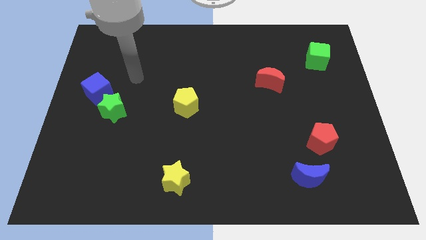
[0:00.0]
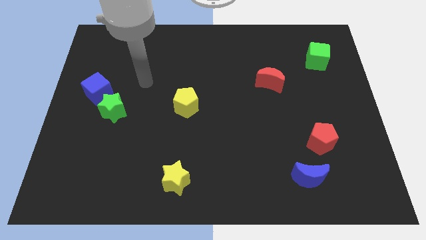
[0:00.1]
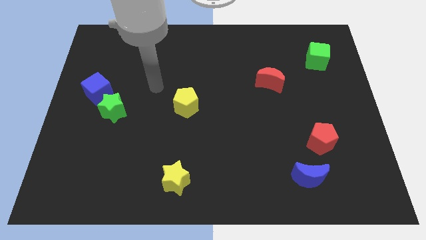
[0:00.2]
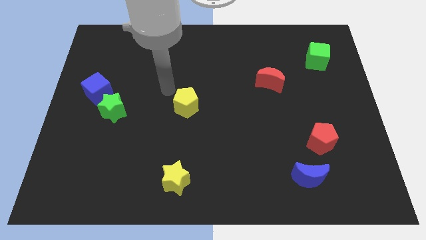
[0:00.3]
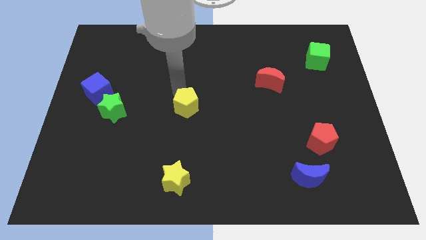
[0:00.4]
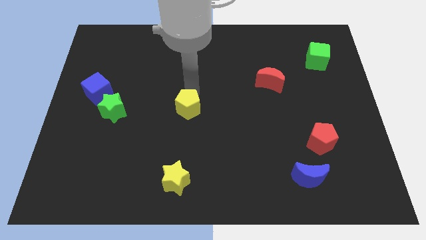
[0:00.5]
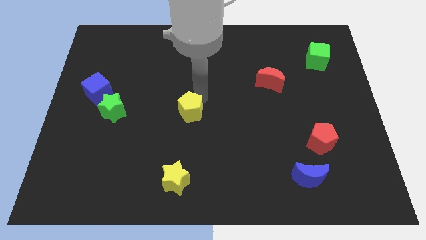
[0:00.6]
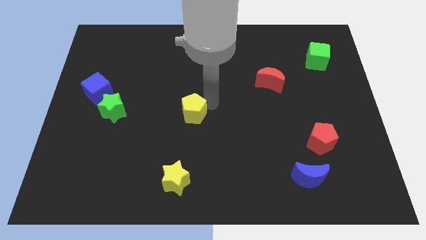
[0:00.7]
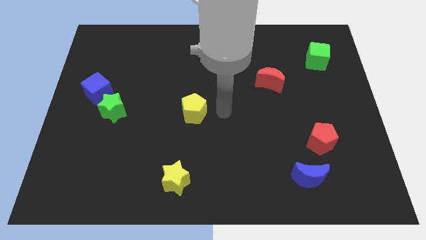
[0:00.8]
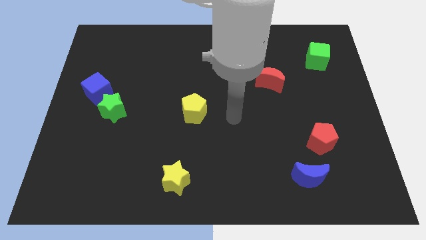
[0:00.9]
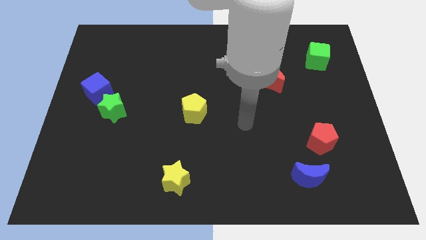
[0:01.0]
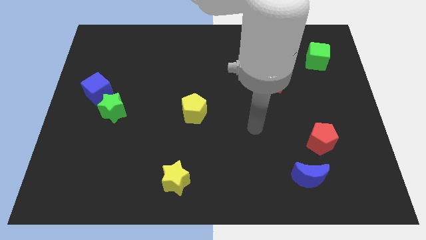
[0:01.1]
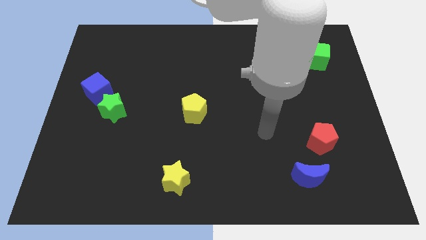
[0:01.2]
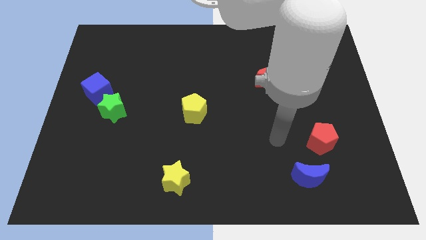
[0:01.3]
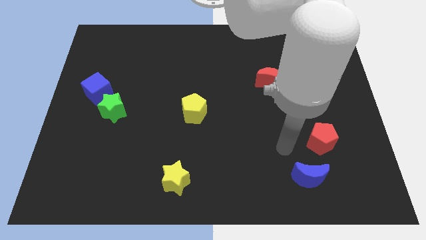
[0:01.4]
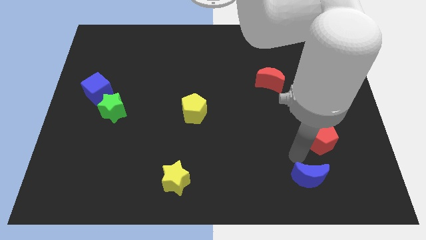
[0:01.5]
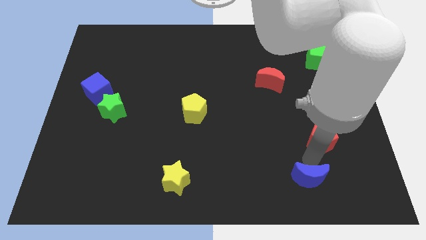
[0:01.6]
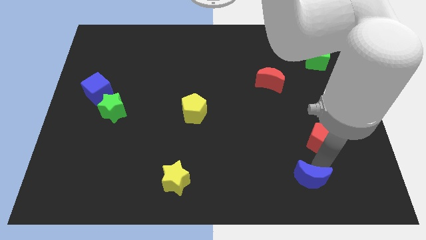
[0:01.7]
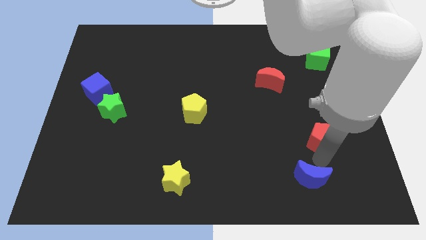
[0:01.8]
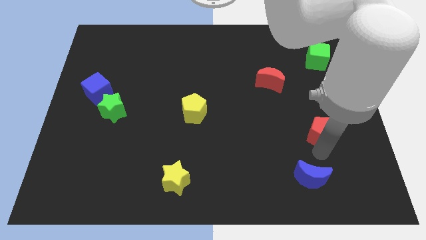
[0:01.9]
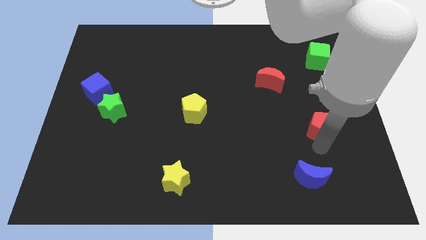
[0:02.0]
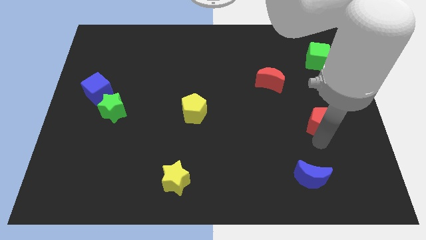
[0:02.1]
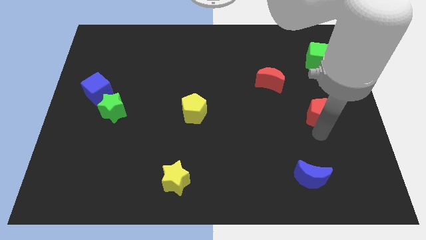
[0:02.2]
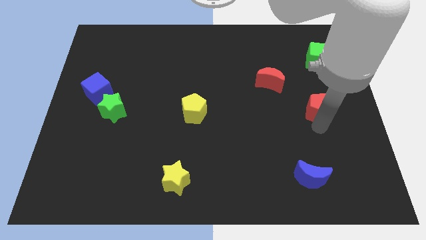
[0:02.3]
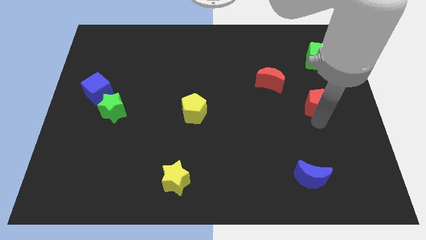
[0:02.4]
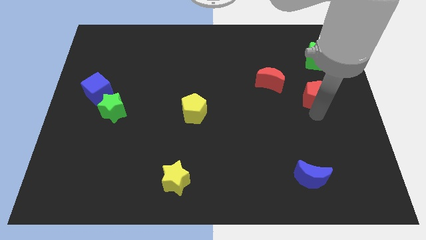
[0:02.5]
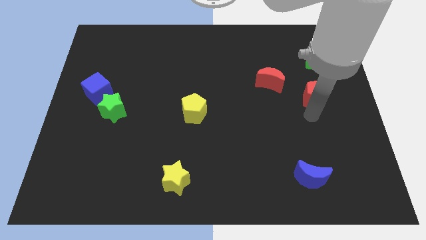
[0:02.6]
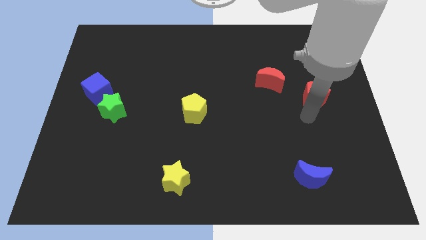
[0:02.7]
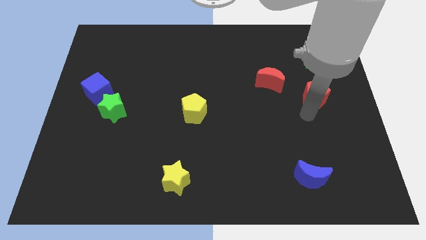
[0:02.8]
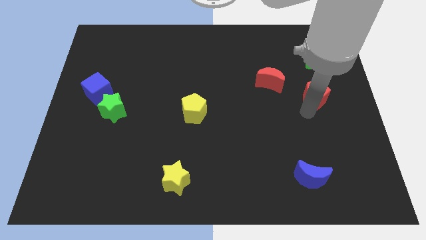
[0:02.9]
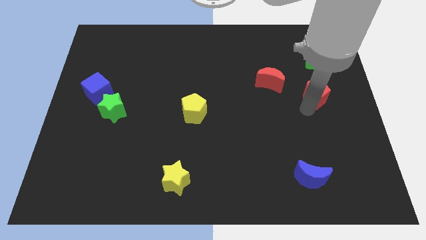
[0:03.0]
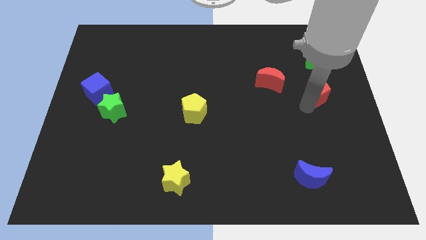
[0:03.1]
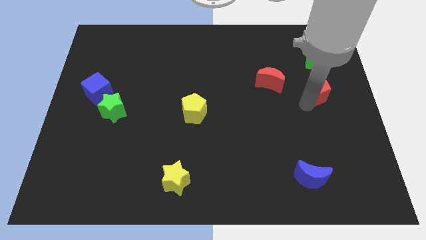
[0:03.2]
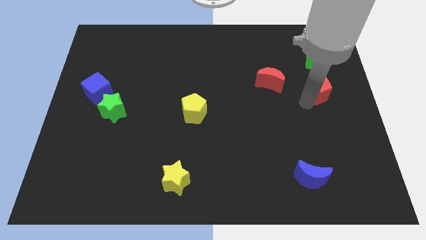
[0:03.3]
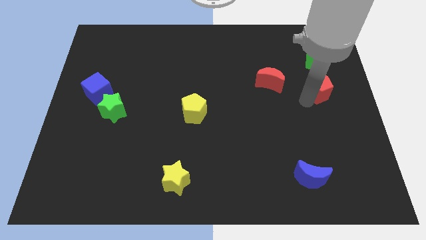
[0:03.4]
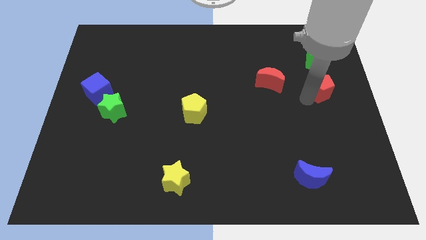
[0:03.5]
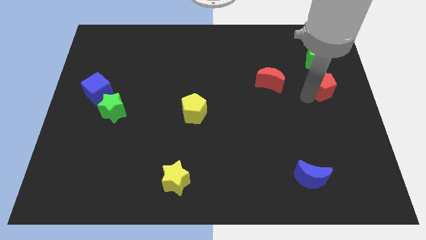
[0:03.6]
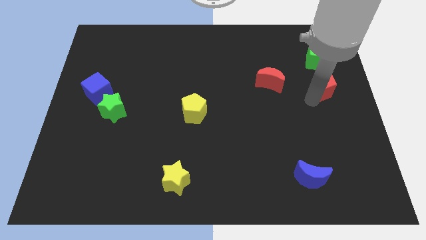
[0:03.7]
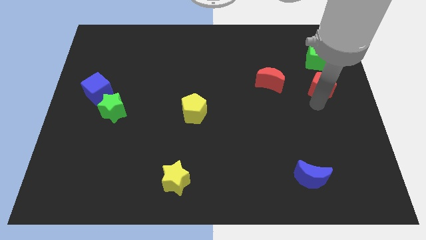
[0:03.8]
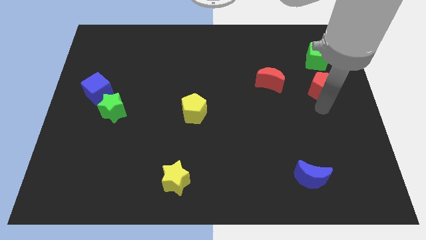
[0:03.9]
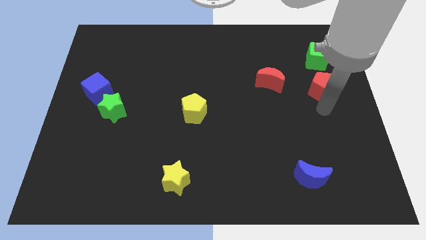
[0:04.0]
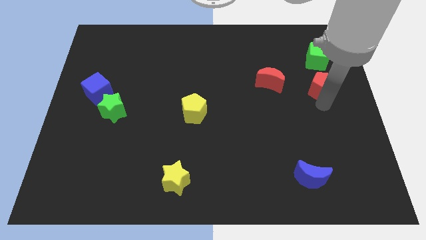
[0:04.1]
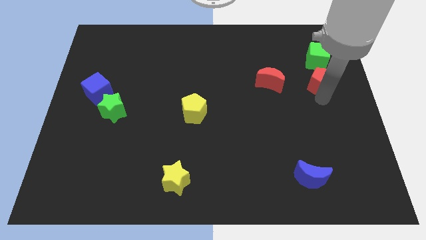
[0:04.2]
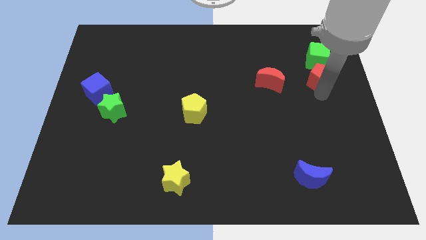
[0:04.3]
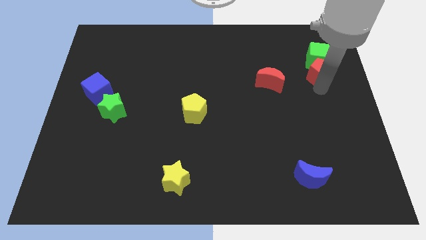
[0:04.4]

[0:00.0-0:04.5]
push the red pentagon close to the green cube

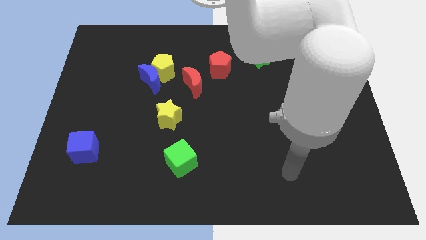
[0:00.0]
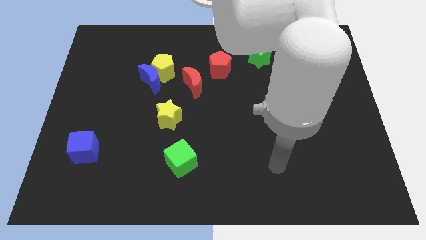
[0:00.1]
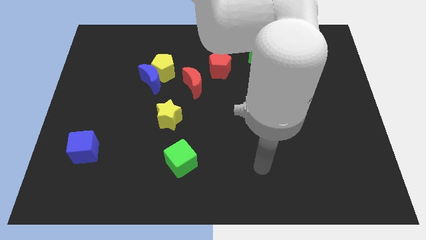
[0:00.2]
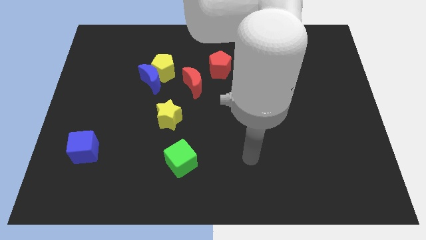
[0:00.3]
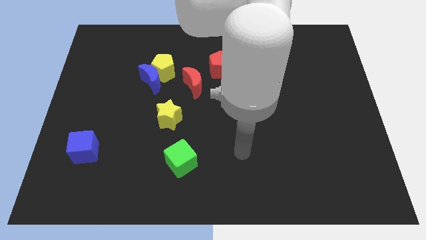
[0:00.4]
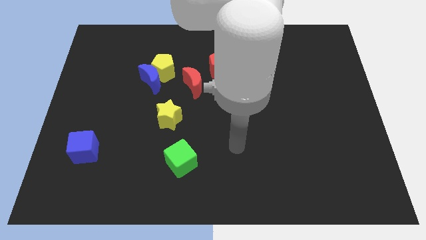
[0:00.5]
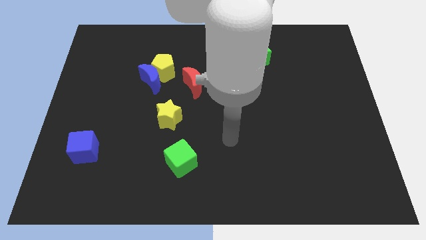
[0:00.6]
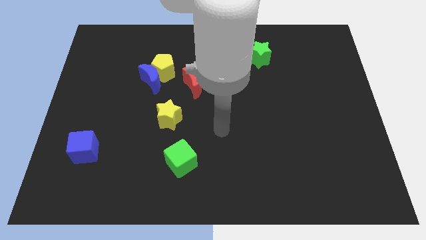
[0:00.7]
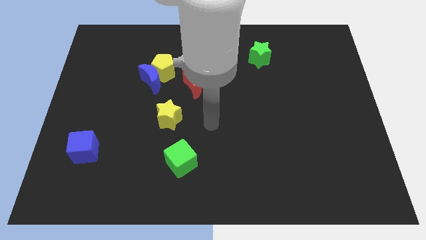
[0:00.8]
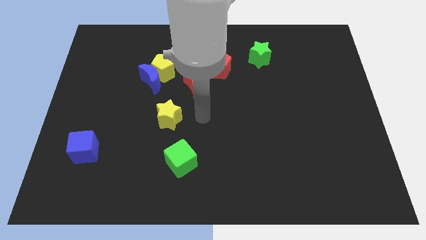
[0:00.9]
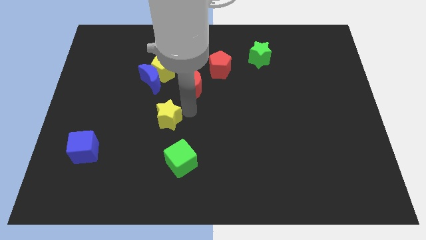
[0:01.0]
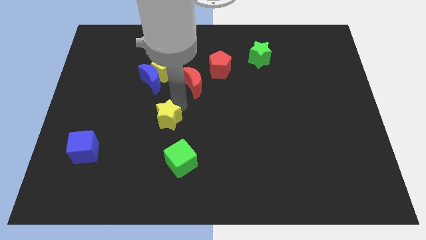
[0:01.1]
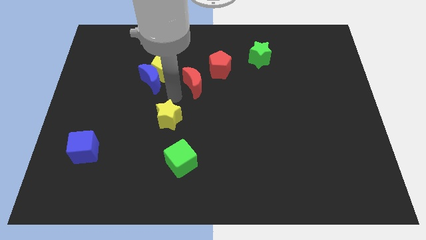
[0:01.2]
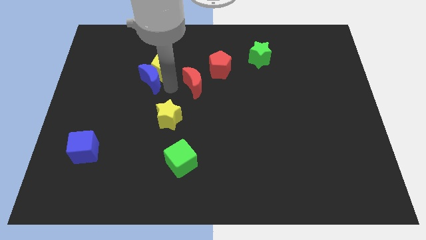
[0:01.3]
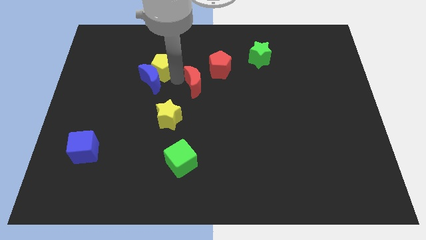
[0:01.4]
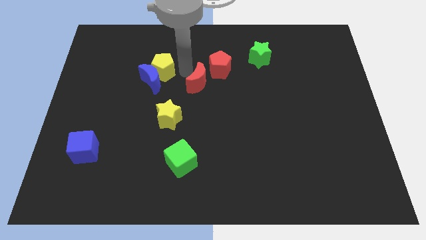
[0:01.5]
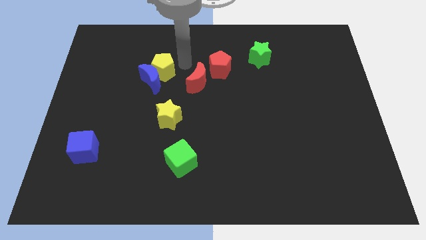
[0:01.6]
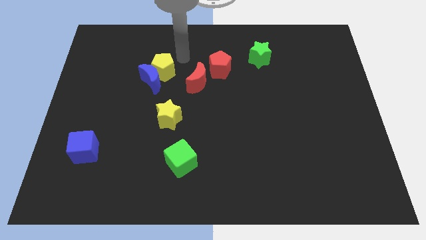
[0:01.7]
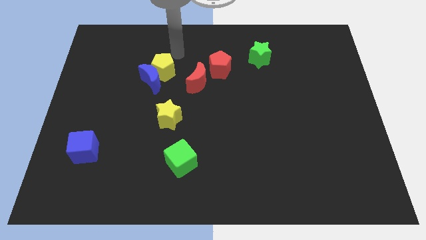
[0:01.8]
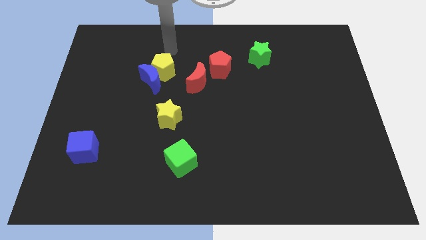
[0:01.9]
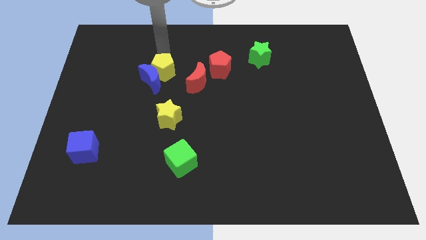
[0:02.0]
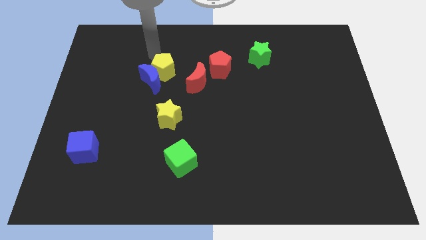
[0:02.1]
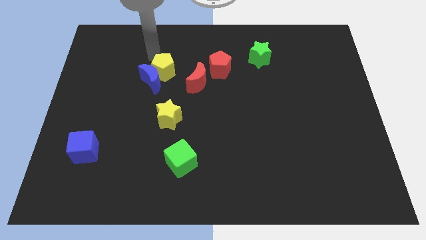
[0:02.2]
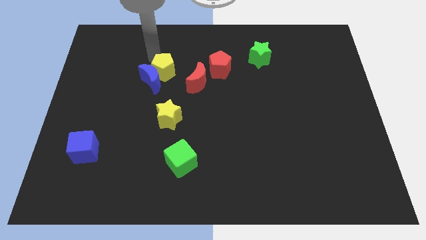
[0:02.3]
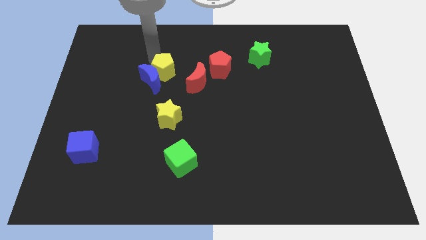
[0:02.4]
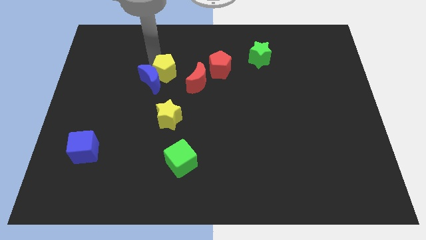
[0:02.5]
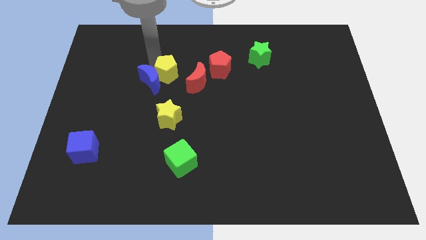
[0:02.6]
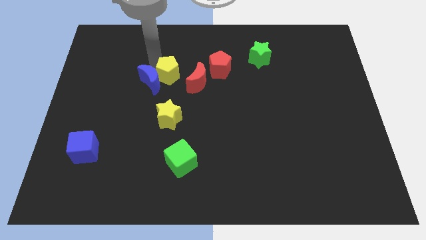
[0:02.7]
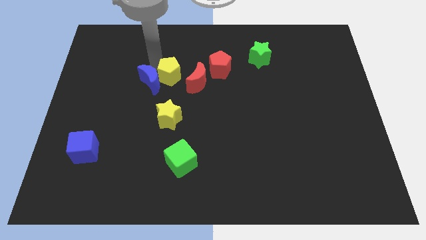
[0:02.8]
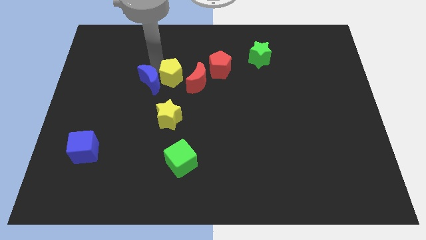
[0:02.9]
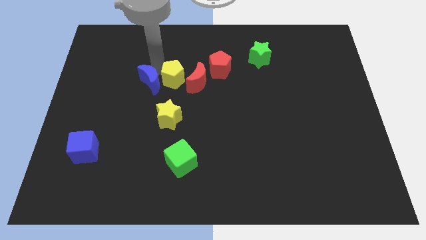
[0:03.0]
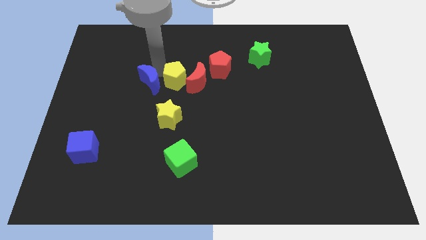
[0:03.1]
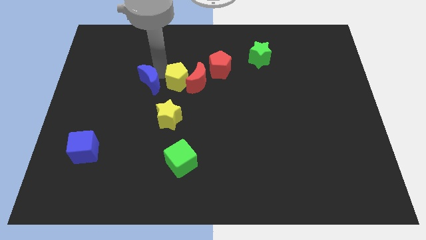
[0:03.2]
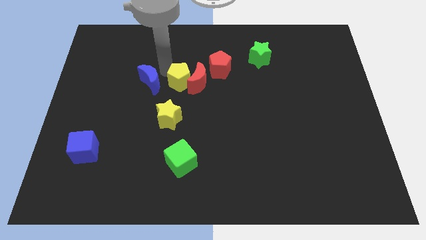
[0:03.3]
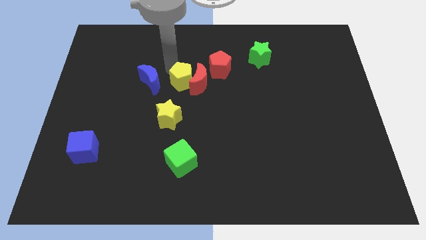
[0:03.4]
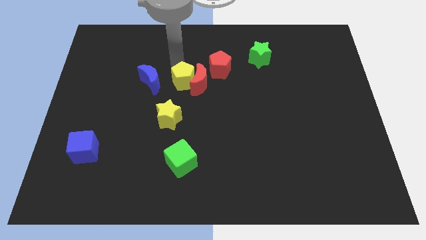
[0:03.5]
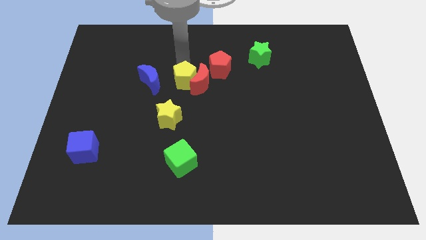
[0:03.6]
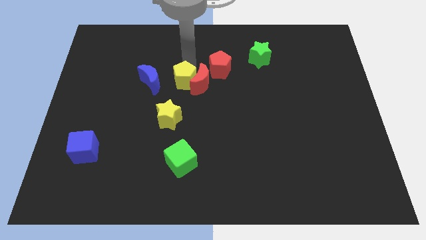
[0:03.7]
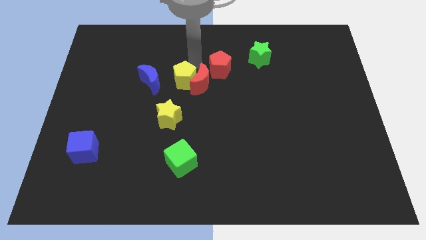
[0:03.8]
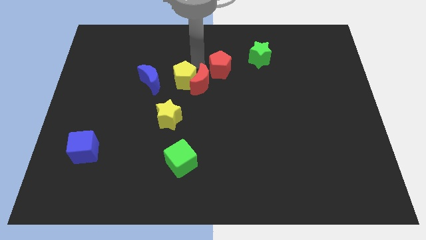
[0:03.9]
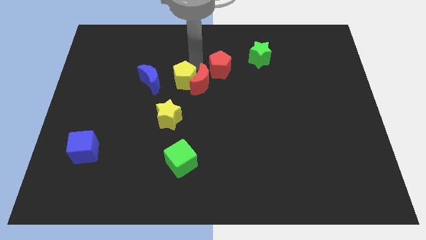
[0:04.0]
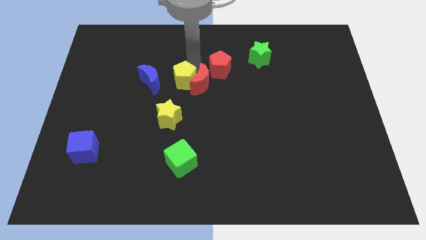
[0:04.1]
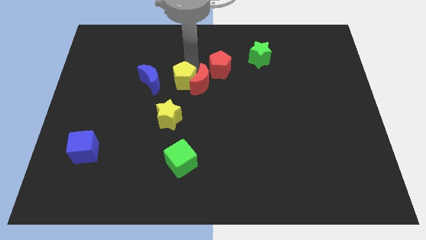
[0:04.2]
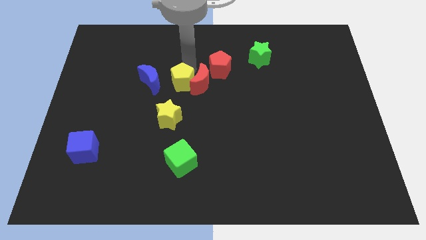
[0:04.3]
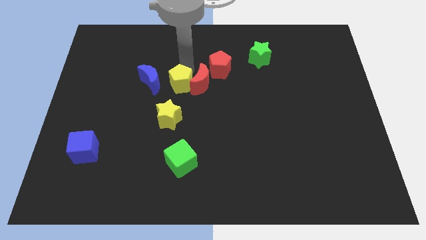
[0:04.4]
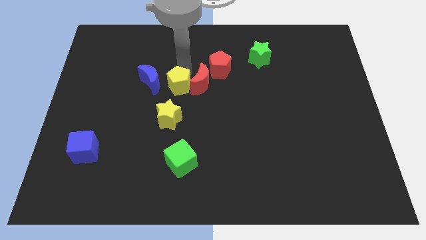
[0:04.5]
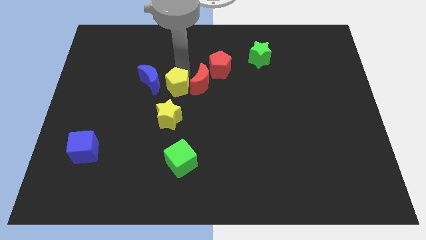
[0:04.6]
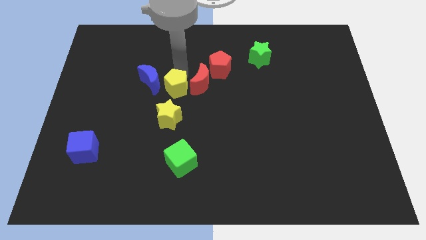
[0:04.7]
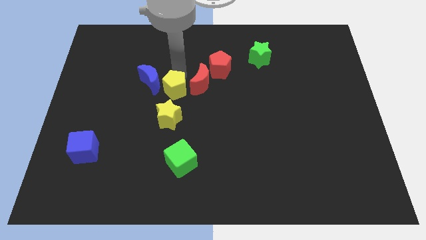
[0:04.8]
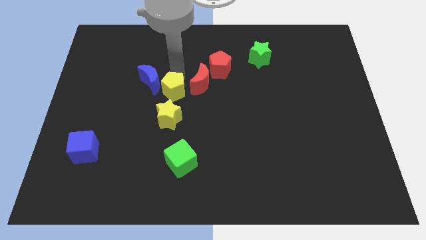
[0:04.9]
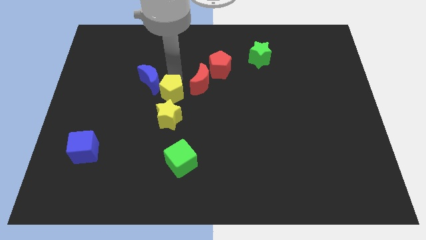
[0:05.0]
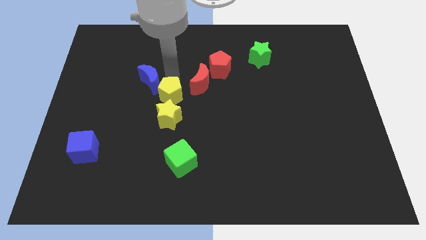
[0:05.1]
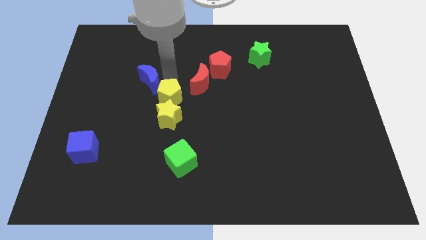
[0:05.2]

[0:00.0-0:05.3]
put the yellow pentagon towards the yellow star
